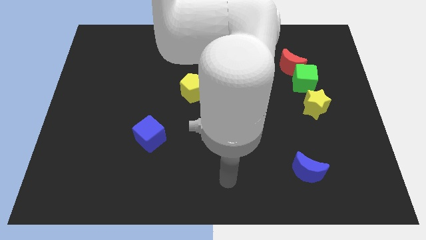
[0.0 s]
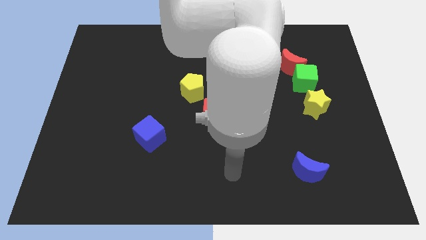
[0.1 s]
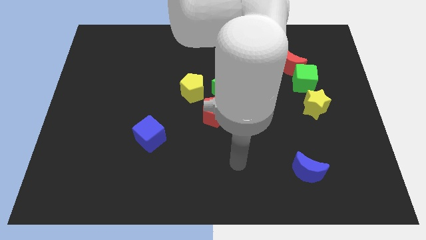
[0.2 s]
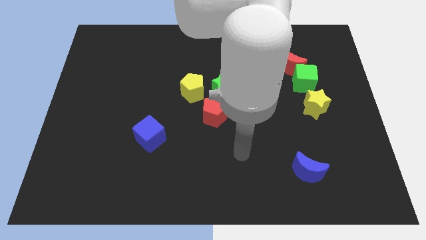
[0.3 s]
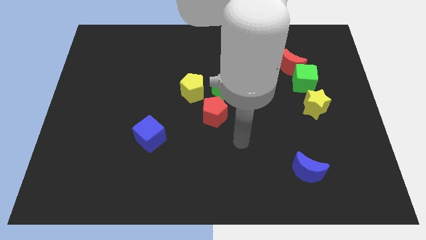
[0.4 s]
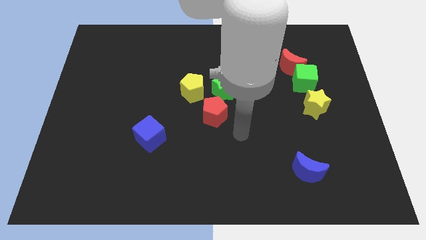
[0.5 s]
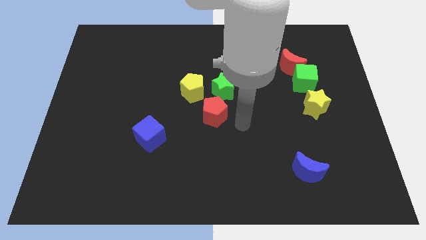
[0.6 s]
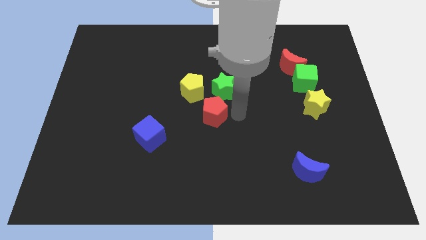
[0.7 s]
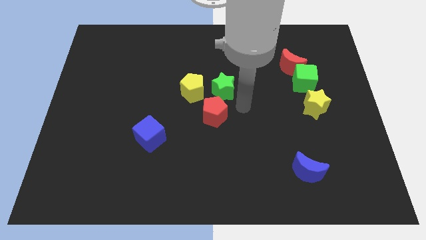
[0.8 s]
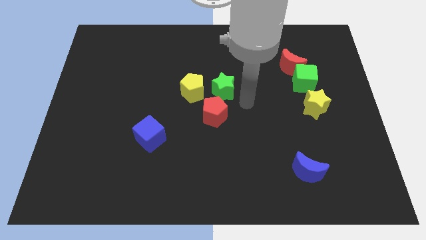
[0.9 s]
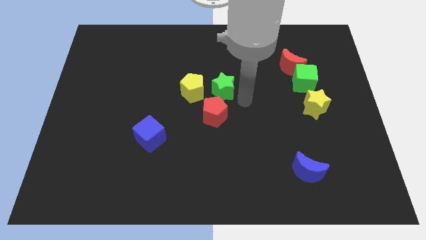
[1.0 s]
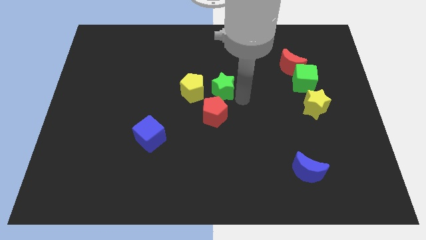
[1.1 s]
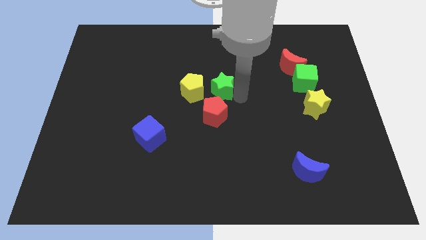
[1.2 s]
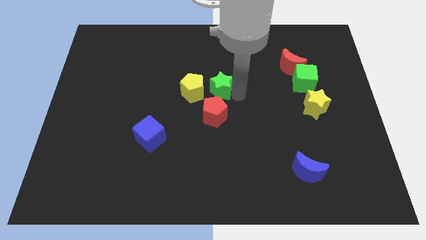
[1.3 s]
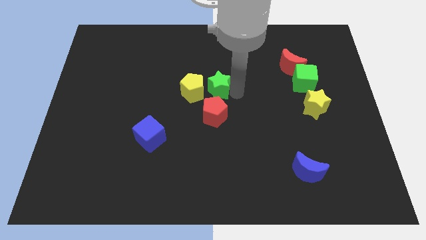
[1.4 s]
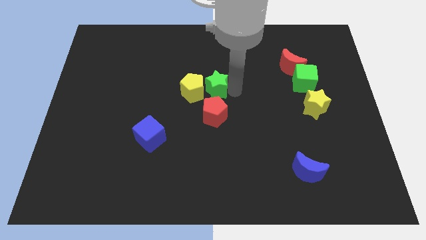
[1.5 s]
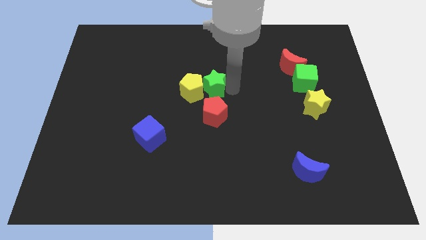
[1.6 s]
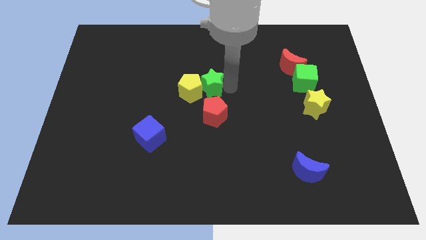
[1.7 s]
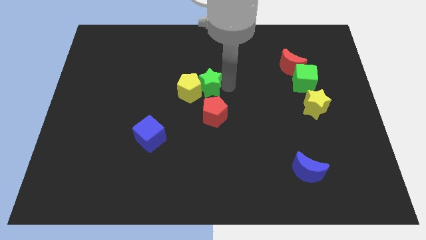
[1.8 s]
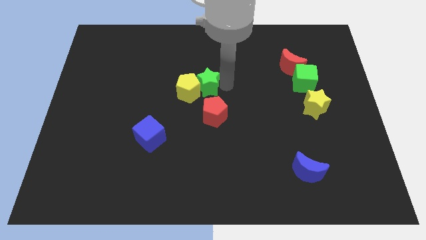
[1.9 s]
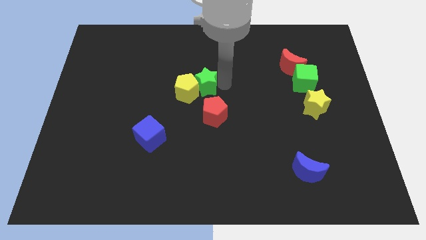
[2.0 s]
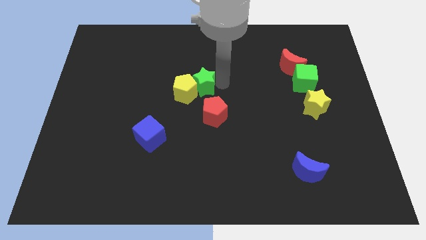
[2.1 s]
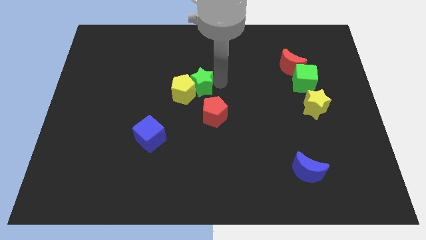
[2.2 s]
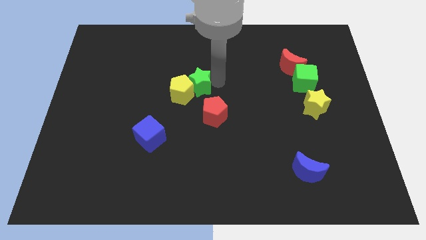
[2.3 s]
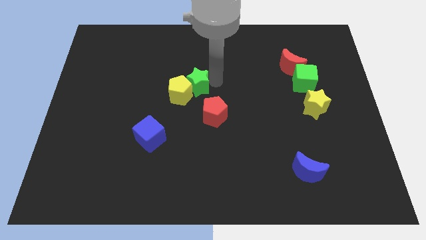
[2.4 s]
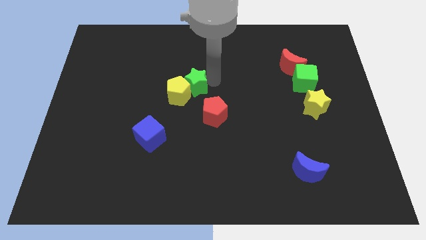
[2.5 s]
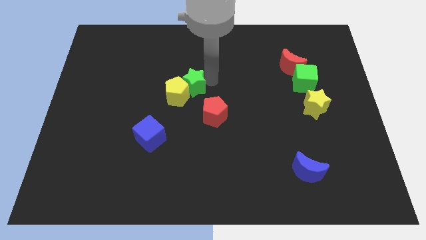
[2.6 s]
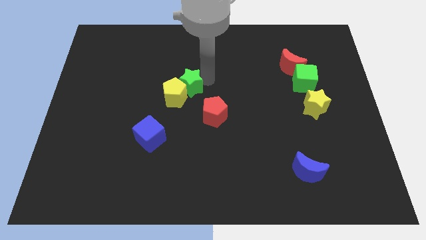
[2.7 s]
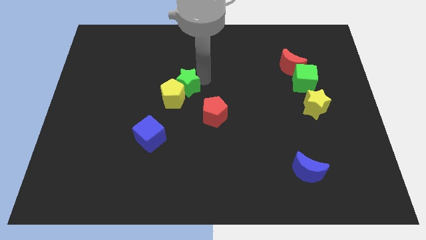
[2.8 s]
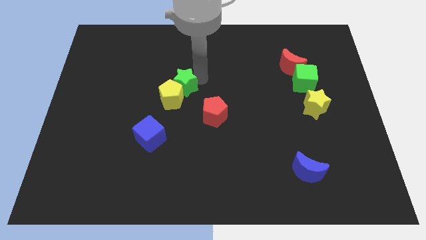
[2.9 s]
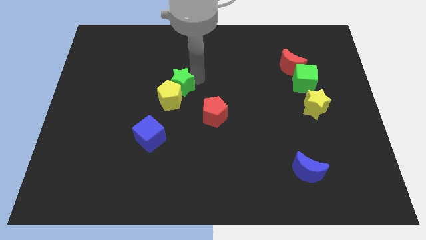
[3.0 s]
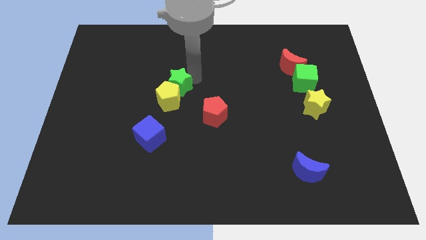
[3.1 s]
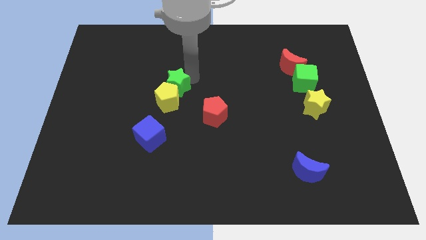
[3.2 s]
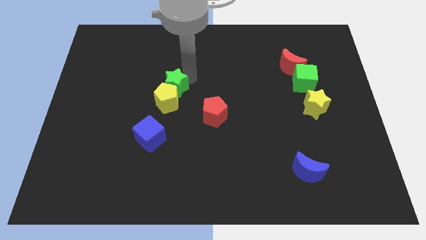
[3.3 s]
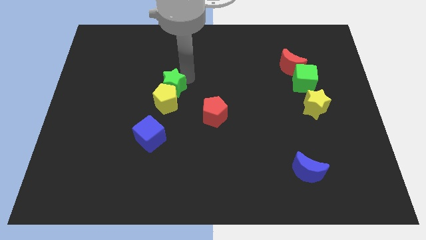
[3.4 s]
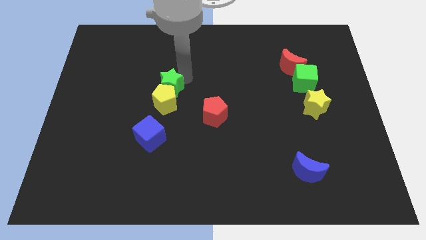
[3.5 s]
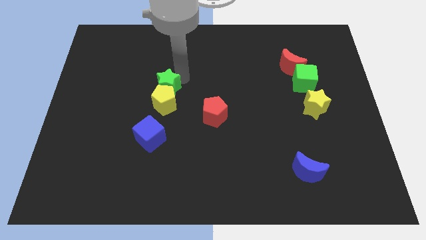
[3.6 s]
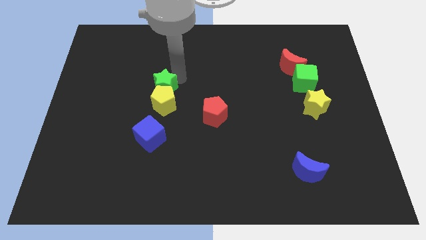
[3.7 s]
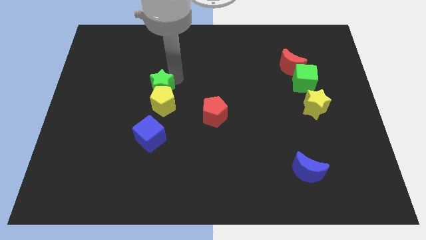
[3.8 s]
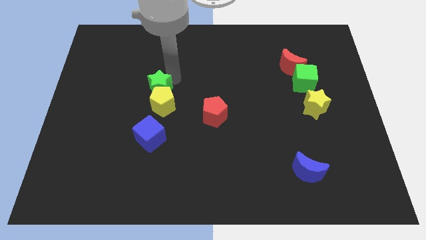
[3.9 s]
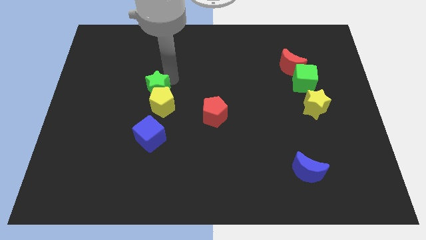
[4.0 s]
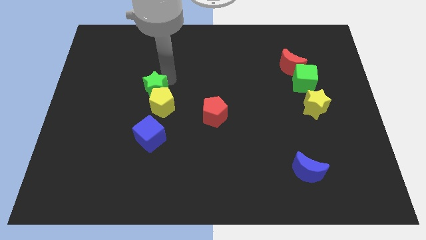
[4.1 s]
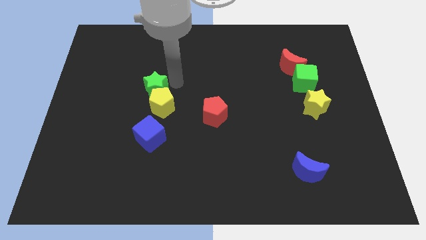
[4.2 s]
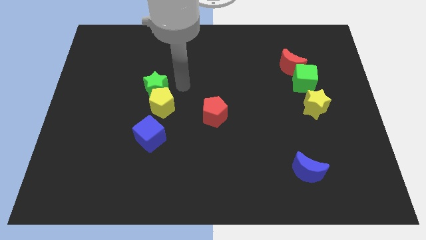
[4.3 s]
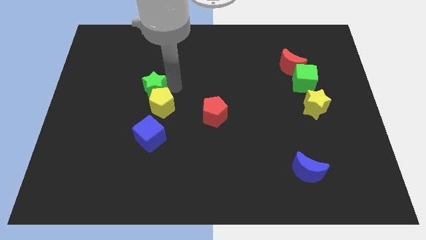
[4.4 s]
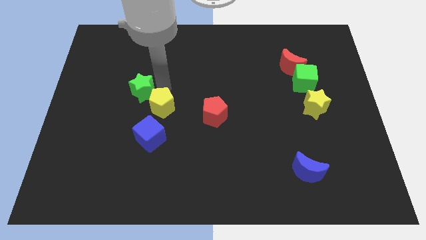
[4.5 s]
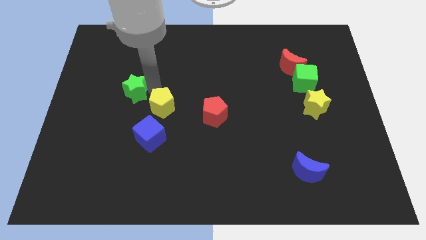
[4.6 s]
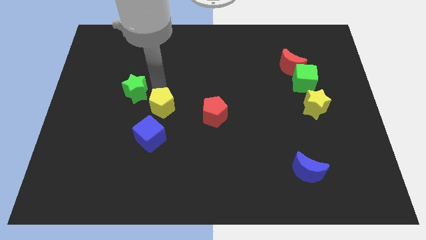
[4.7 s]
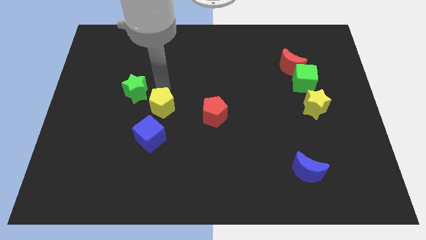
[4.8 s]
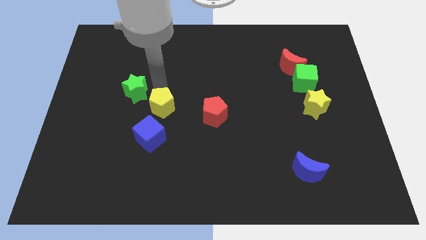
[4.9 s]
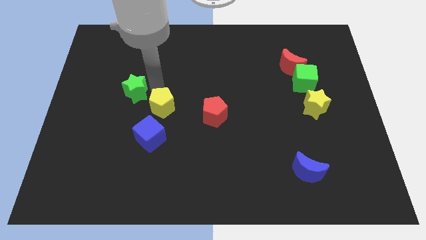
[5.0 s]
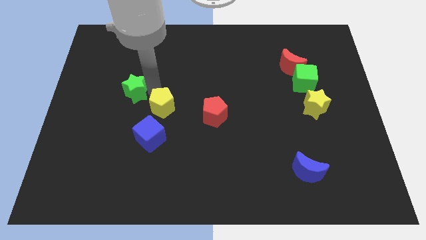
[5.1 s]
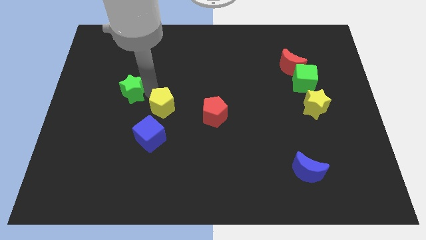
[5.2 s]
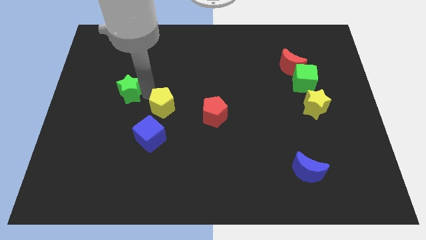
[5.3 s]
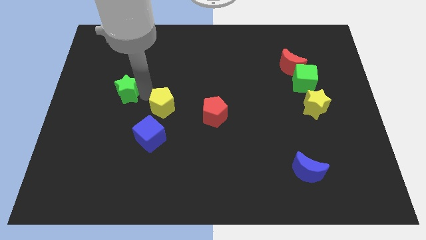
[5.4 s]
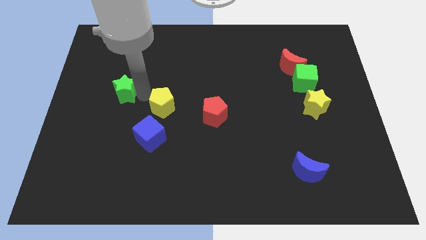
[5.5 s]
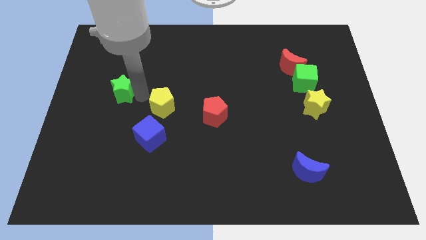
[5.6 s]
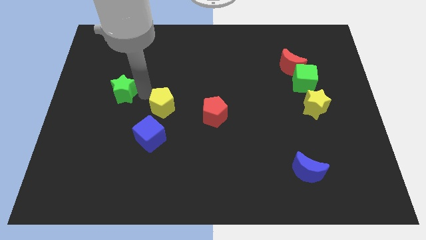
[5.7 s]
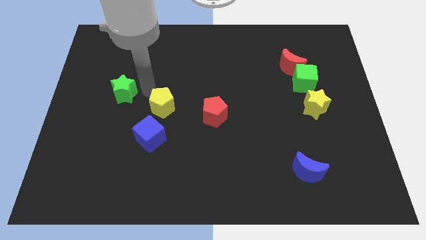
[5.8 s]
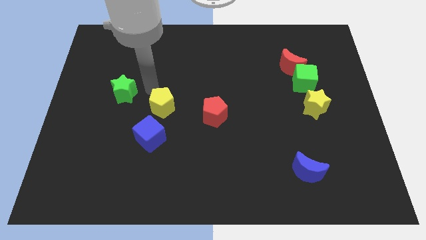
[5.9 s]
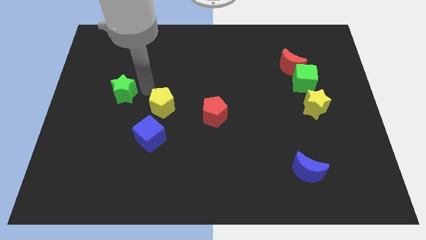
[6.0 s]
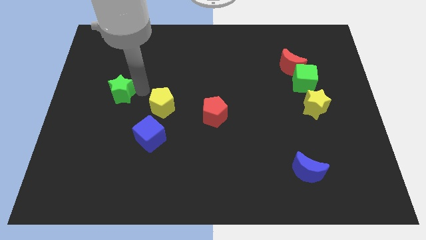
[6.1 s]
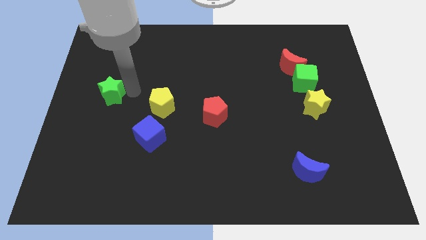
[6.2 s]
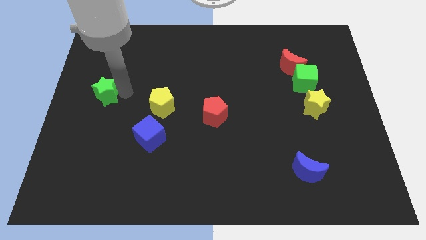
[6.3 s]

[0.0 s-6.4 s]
move the green star to the left side of the board

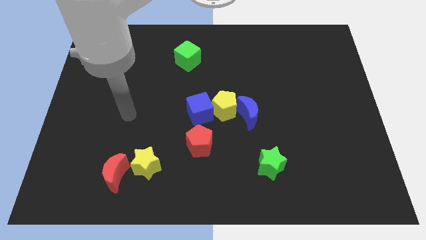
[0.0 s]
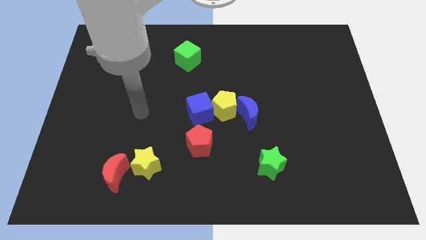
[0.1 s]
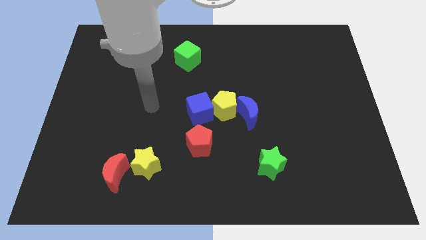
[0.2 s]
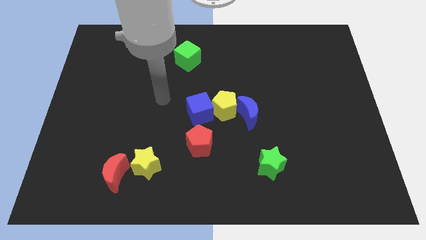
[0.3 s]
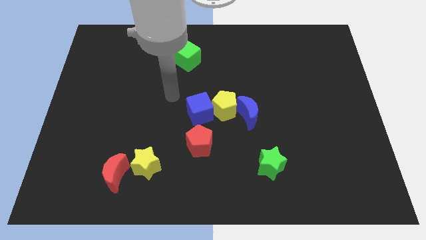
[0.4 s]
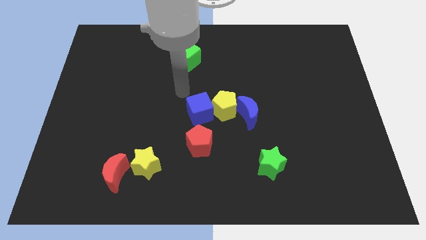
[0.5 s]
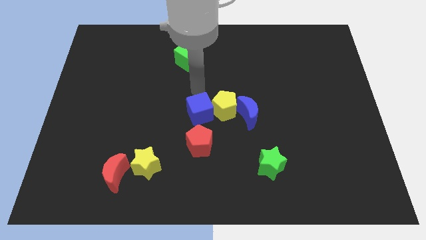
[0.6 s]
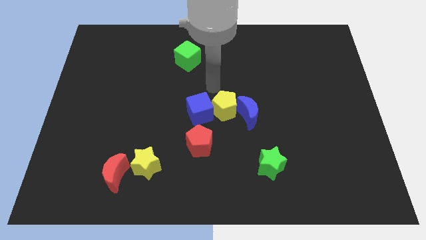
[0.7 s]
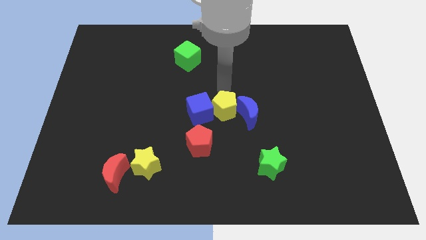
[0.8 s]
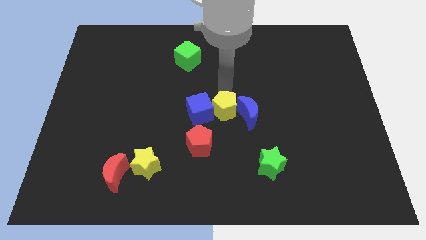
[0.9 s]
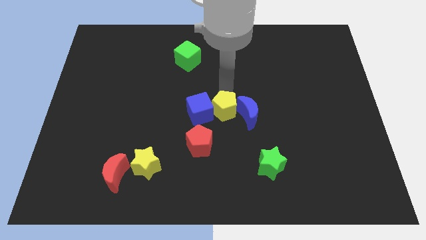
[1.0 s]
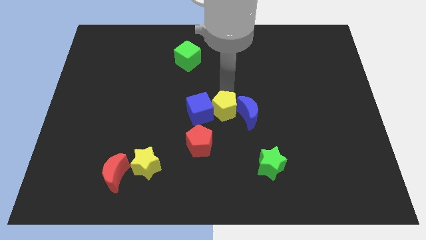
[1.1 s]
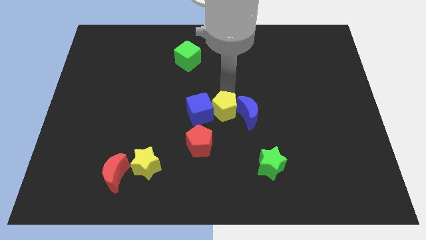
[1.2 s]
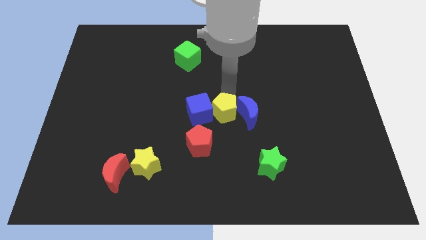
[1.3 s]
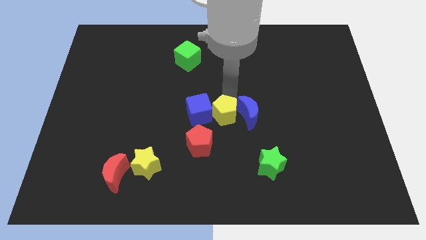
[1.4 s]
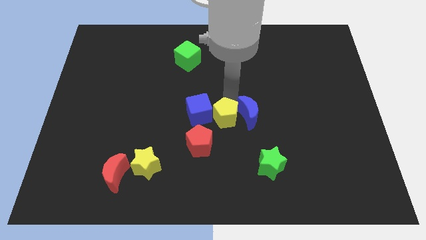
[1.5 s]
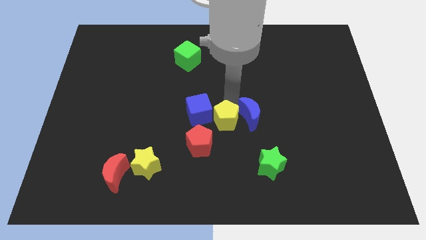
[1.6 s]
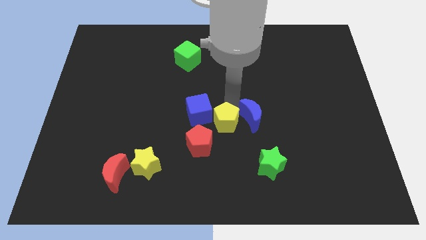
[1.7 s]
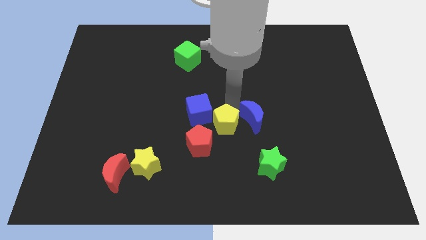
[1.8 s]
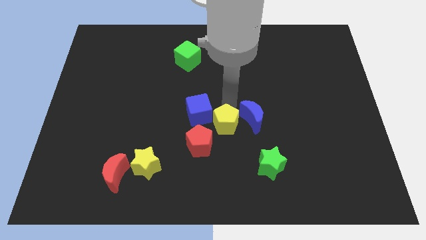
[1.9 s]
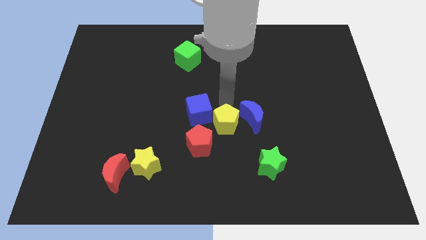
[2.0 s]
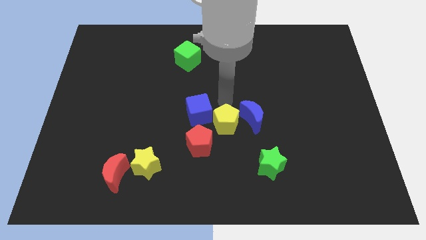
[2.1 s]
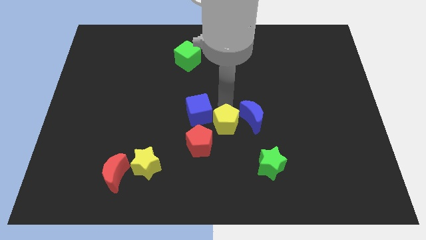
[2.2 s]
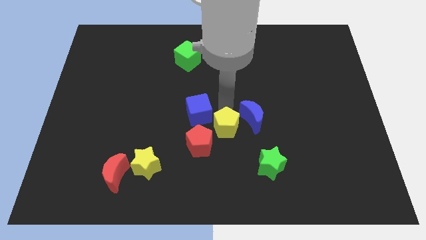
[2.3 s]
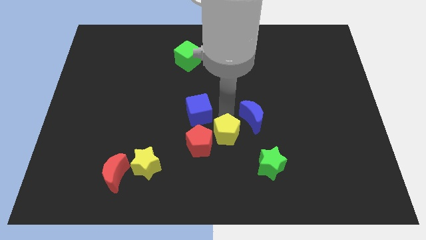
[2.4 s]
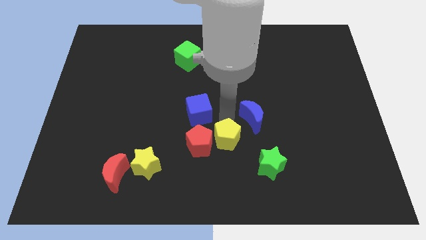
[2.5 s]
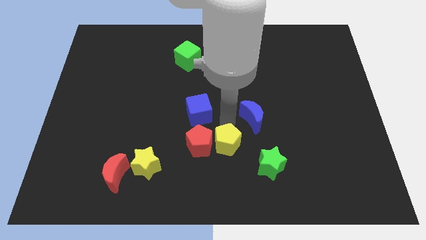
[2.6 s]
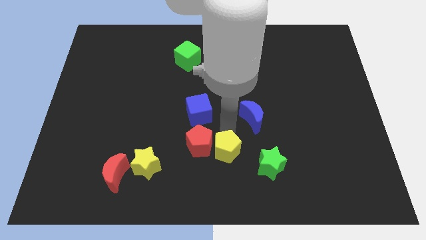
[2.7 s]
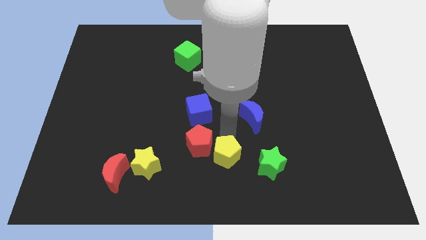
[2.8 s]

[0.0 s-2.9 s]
push the yellow pentagon to the bottom
